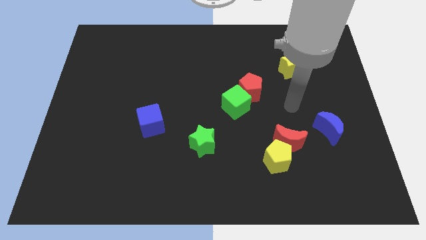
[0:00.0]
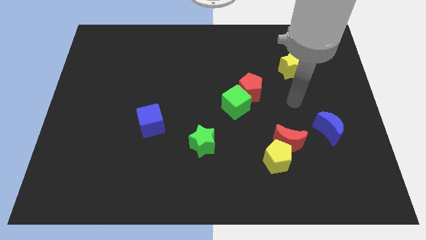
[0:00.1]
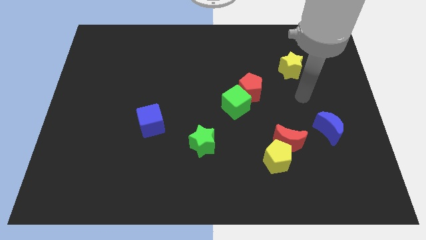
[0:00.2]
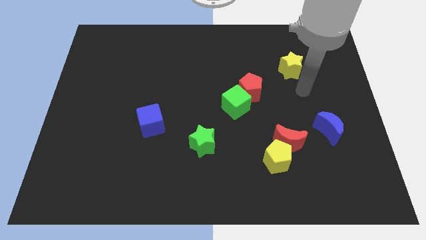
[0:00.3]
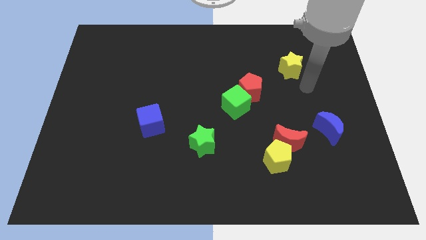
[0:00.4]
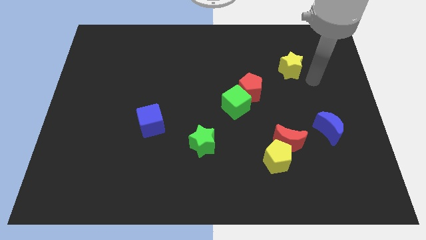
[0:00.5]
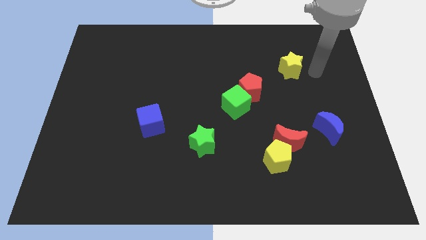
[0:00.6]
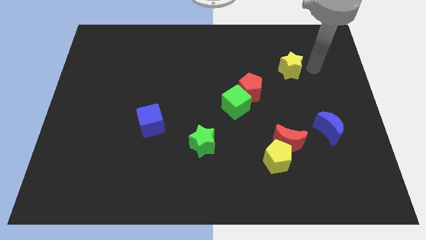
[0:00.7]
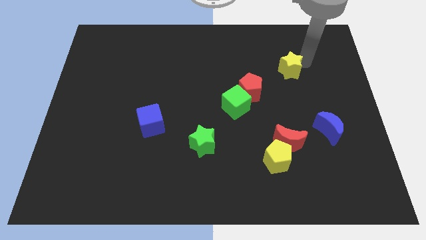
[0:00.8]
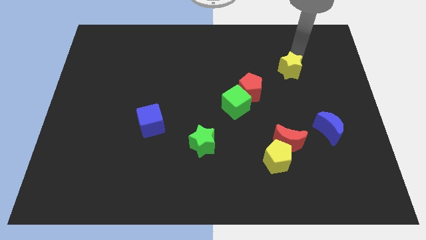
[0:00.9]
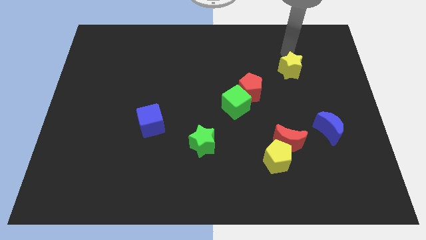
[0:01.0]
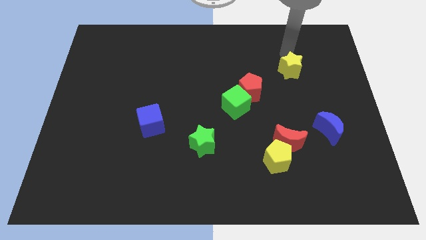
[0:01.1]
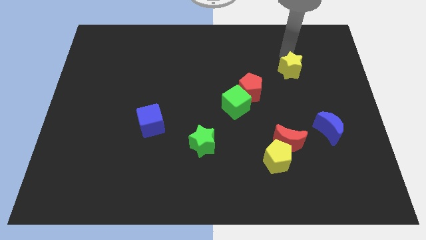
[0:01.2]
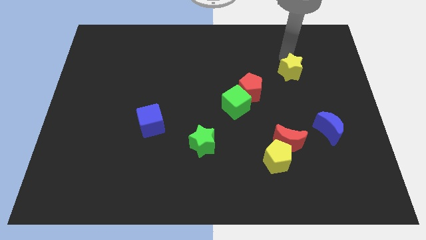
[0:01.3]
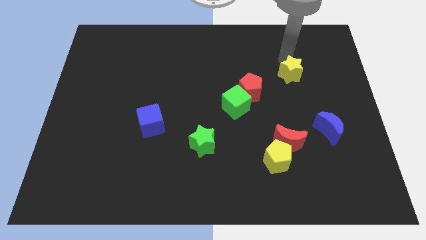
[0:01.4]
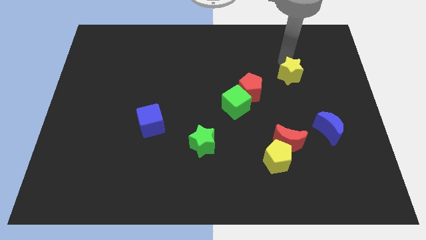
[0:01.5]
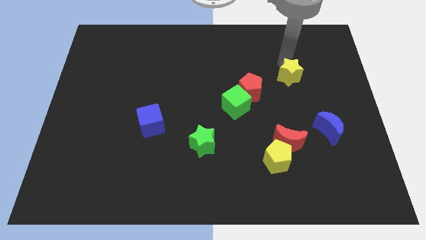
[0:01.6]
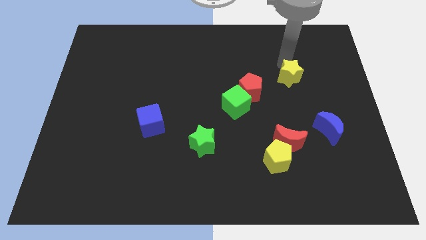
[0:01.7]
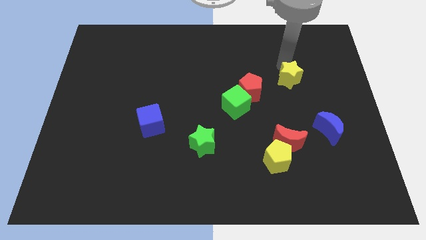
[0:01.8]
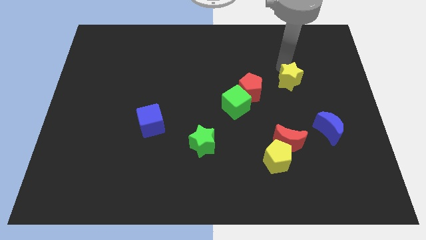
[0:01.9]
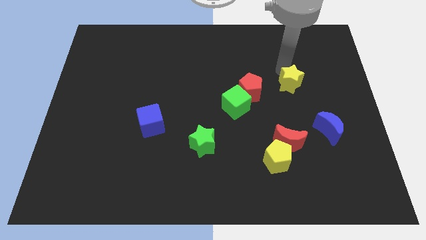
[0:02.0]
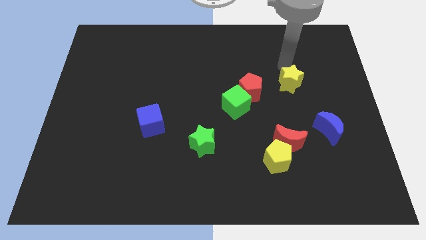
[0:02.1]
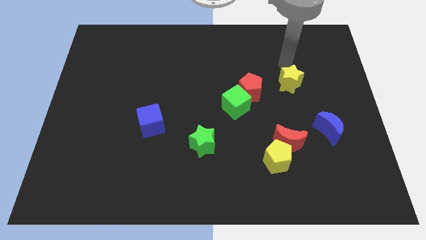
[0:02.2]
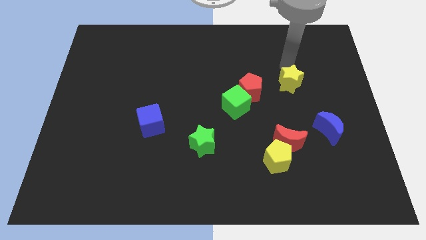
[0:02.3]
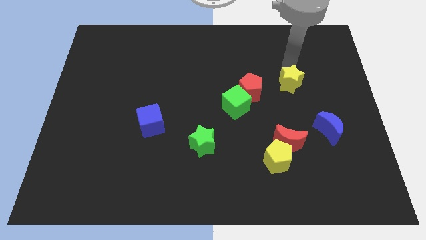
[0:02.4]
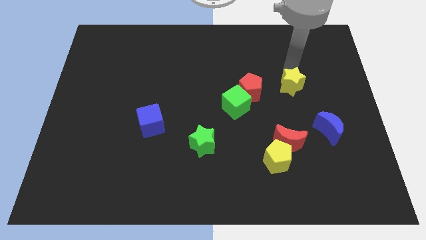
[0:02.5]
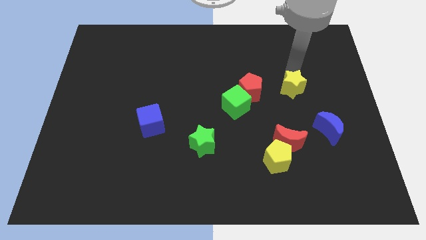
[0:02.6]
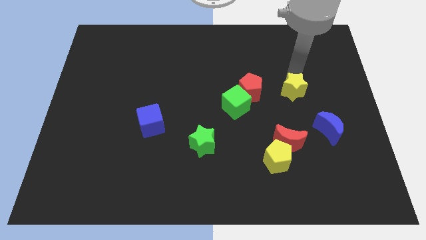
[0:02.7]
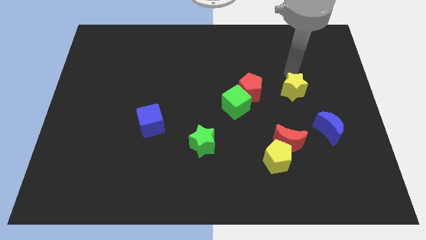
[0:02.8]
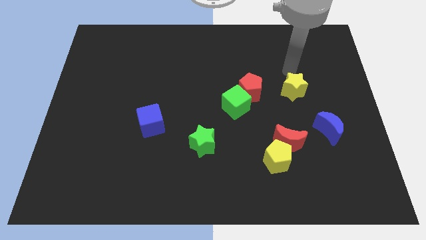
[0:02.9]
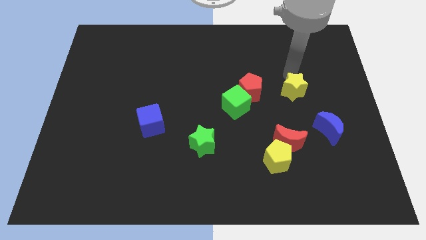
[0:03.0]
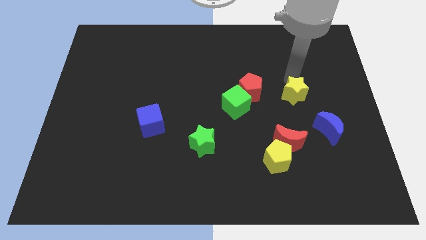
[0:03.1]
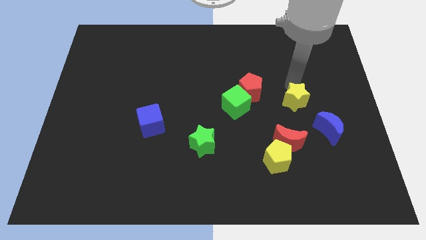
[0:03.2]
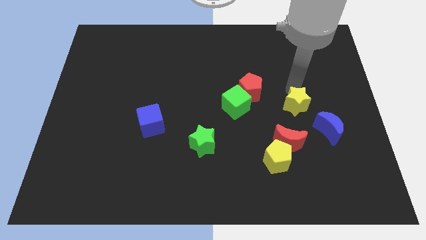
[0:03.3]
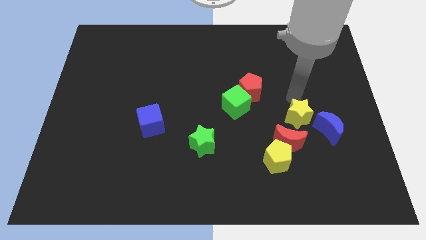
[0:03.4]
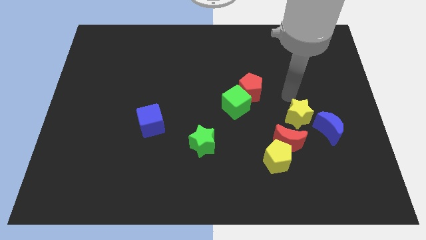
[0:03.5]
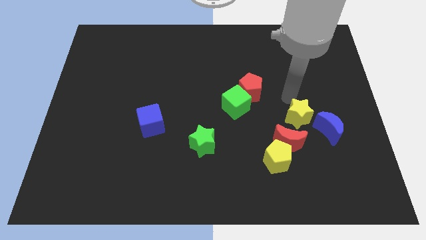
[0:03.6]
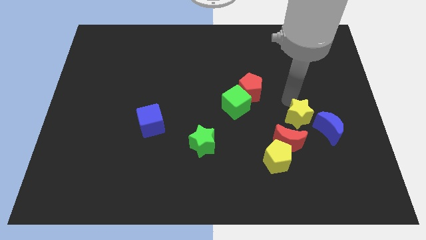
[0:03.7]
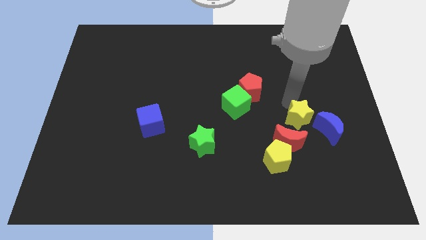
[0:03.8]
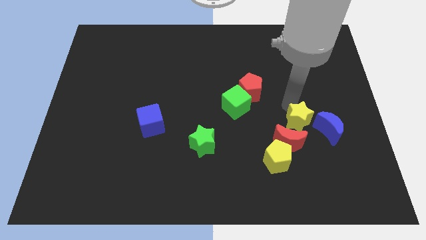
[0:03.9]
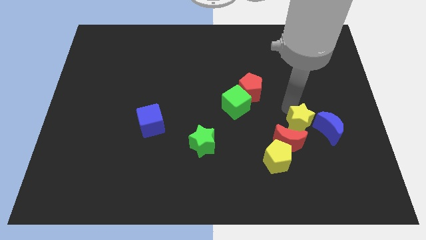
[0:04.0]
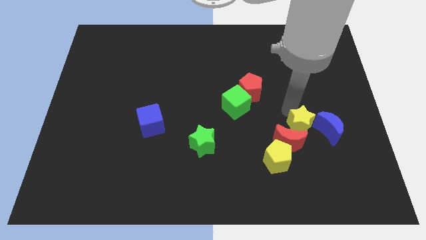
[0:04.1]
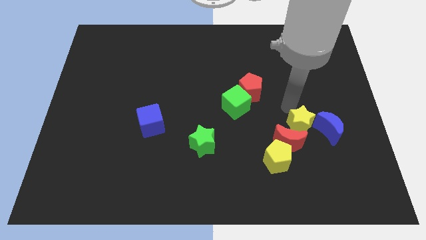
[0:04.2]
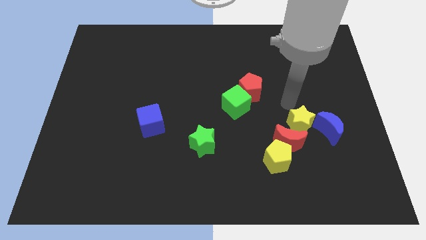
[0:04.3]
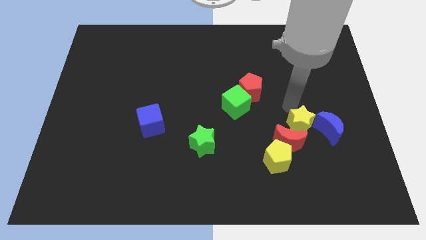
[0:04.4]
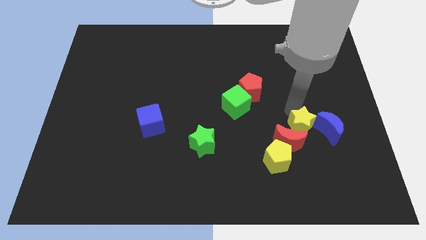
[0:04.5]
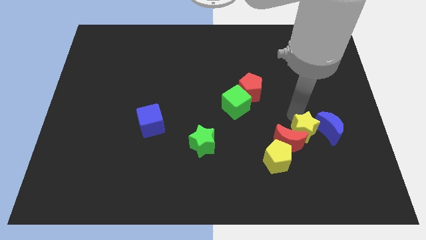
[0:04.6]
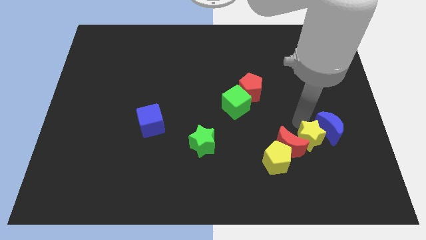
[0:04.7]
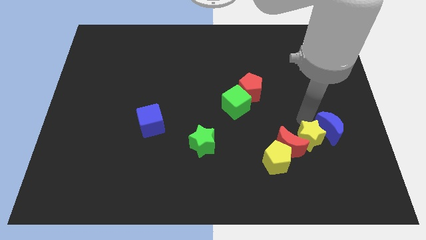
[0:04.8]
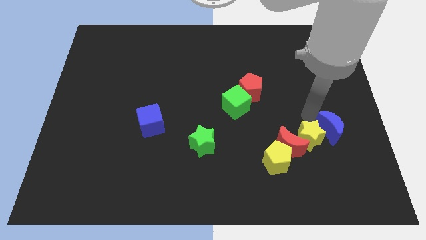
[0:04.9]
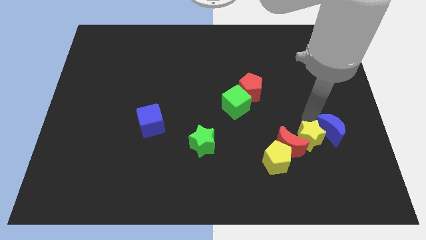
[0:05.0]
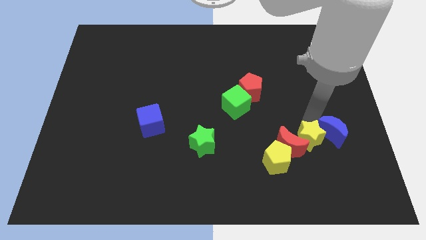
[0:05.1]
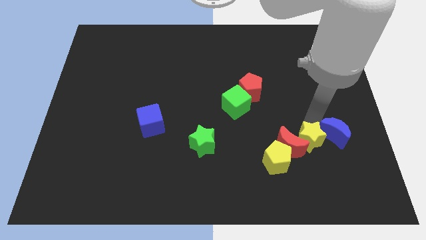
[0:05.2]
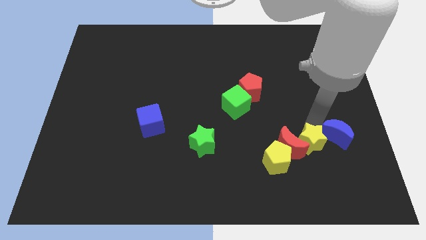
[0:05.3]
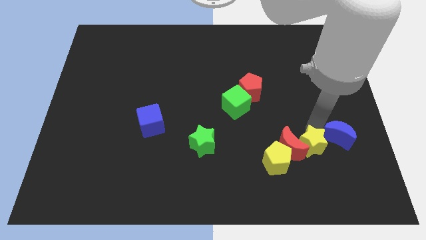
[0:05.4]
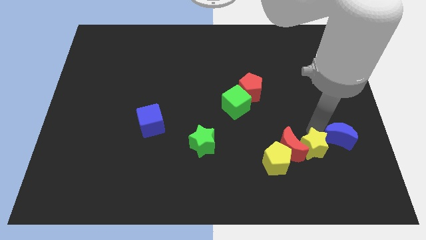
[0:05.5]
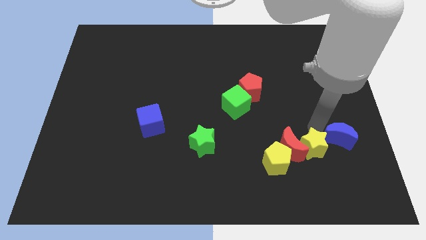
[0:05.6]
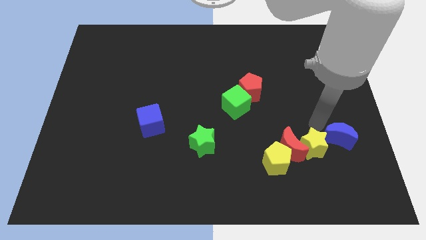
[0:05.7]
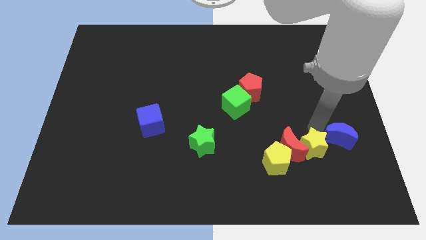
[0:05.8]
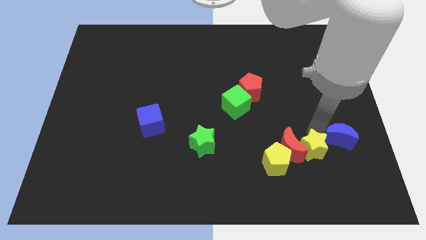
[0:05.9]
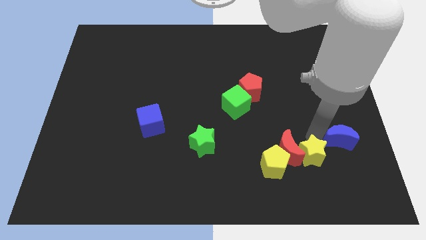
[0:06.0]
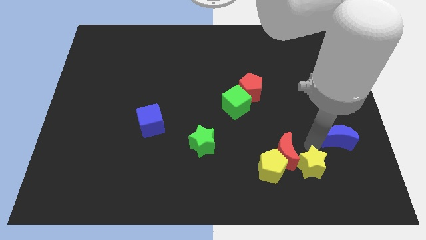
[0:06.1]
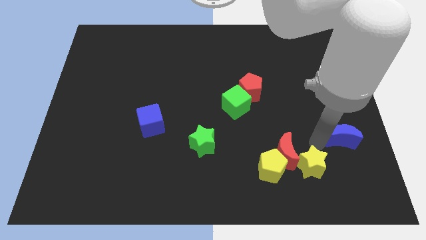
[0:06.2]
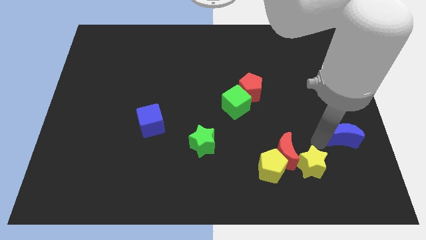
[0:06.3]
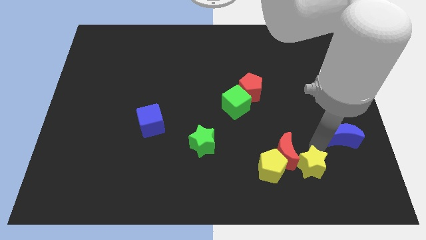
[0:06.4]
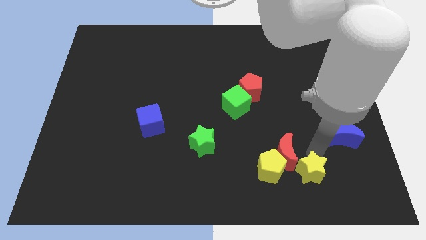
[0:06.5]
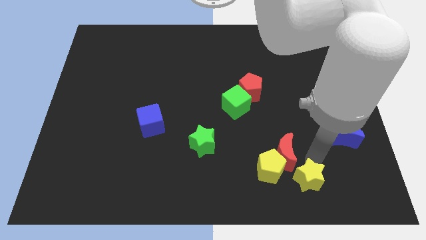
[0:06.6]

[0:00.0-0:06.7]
slide the yellow star to the bottom right of the yellow pentagon

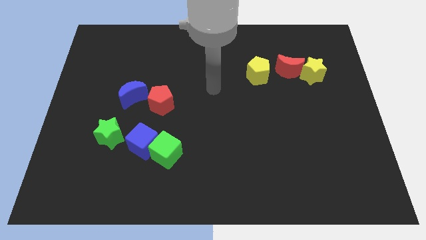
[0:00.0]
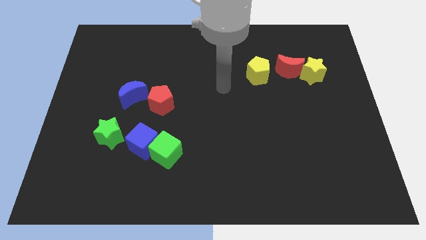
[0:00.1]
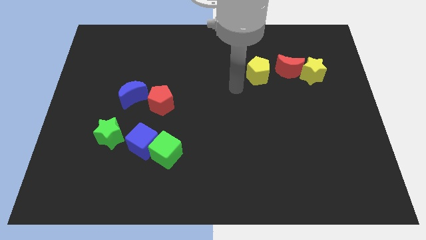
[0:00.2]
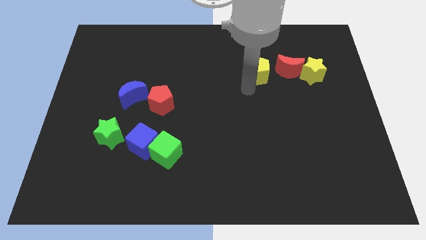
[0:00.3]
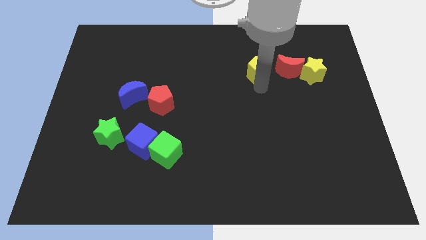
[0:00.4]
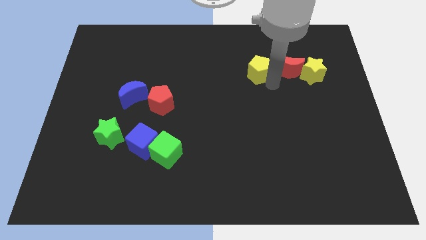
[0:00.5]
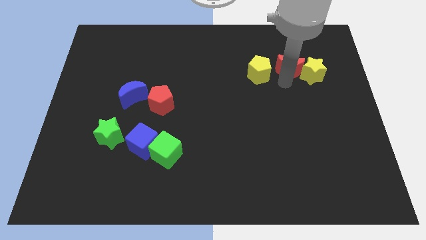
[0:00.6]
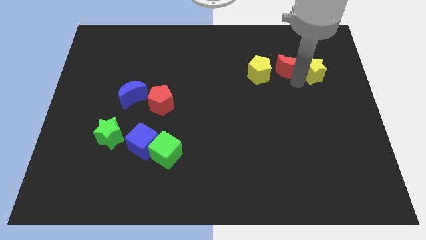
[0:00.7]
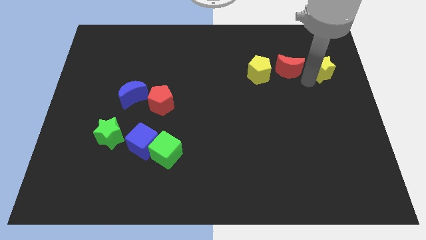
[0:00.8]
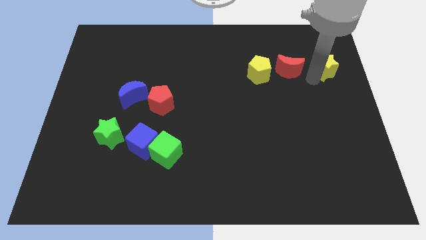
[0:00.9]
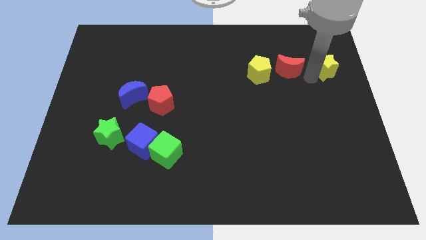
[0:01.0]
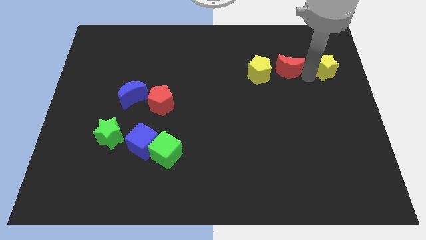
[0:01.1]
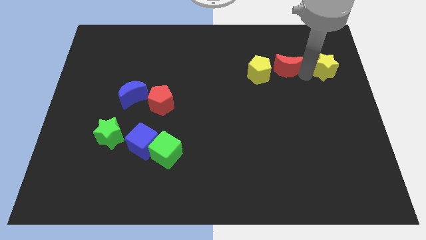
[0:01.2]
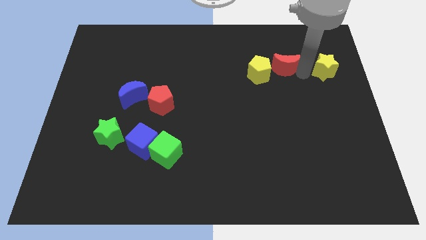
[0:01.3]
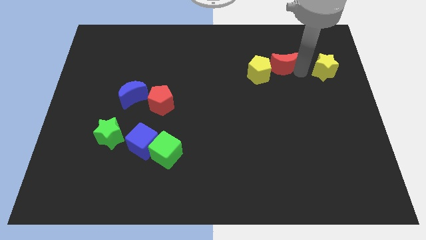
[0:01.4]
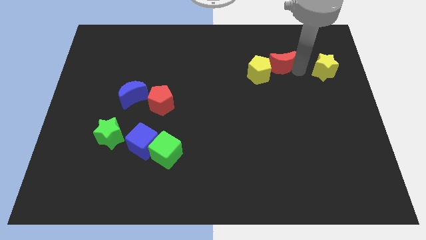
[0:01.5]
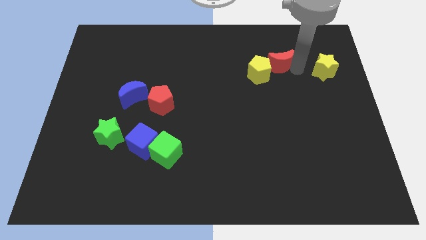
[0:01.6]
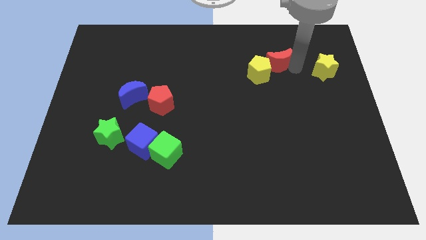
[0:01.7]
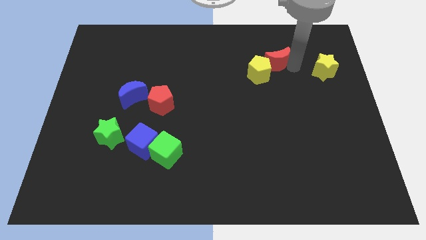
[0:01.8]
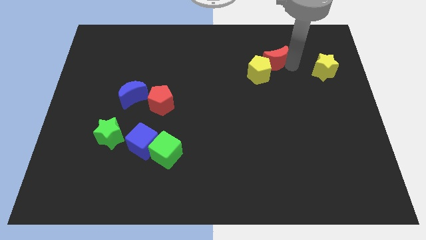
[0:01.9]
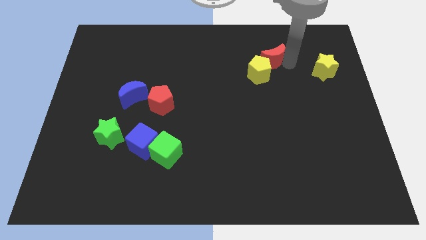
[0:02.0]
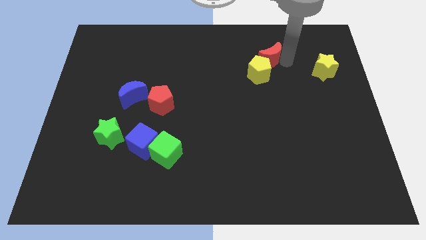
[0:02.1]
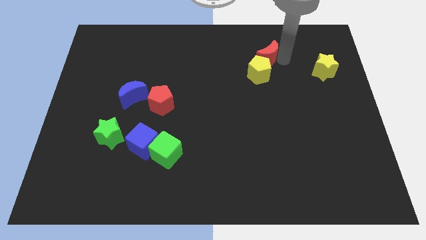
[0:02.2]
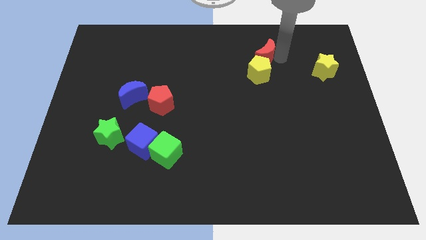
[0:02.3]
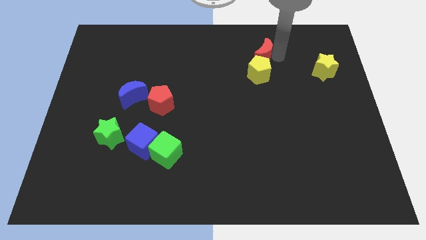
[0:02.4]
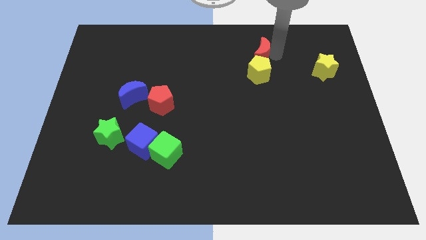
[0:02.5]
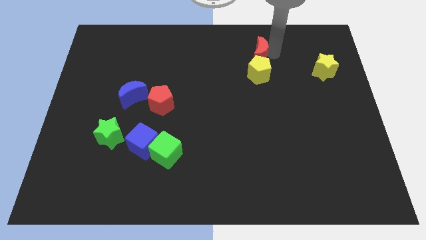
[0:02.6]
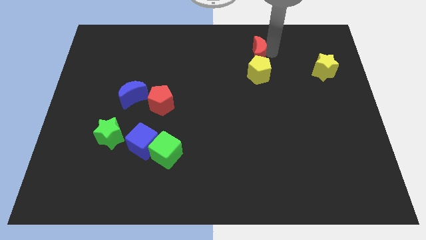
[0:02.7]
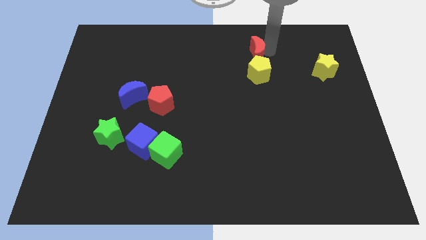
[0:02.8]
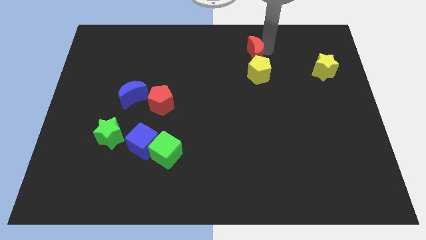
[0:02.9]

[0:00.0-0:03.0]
put the red moon to the top left side of the yellow pentagon
